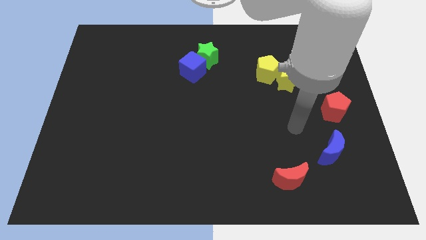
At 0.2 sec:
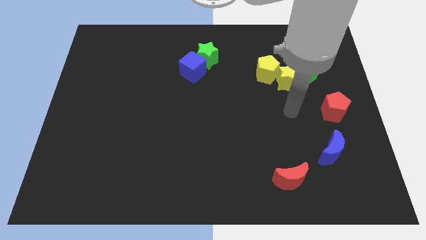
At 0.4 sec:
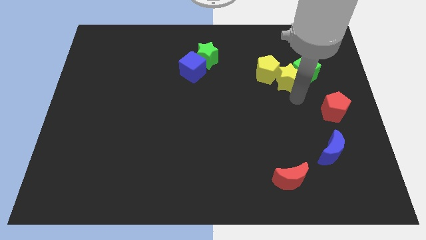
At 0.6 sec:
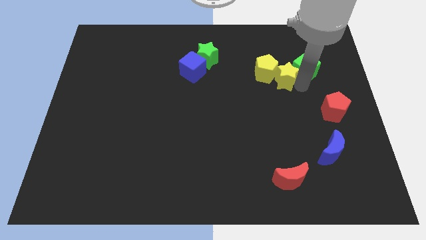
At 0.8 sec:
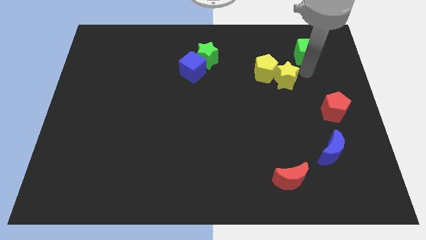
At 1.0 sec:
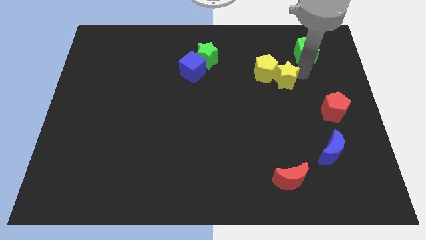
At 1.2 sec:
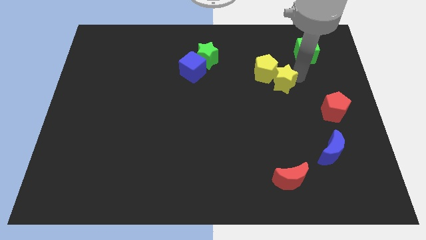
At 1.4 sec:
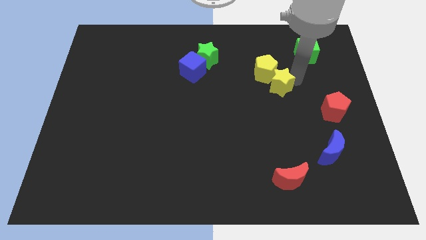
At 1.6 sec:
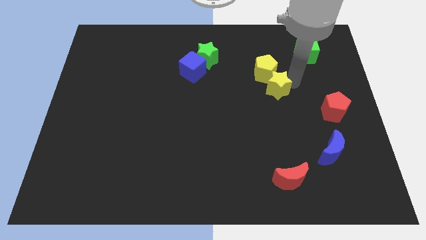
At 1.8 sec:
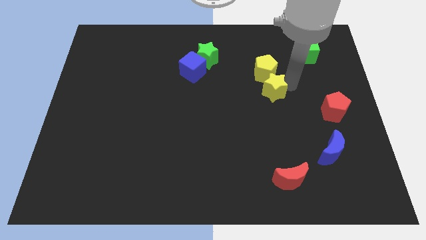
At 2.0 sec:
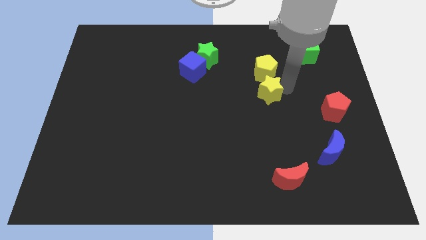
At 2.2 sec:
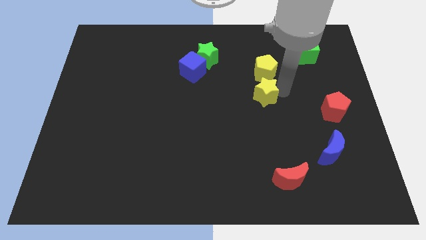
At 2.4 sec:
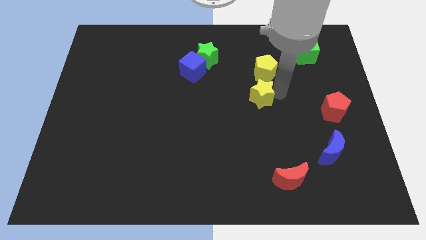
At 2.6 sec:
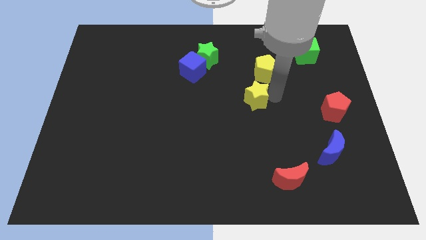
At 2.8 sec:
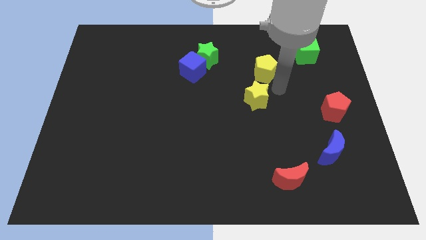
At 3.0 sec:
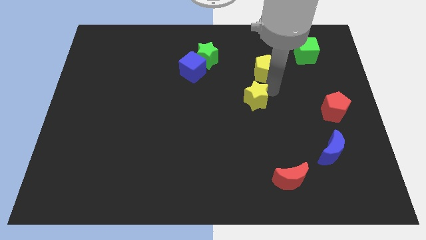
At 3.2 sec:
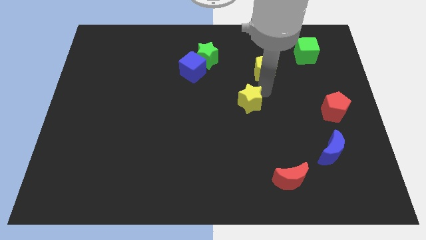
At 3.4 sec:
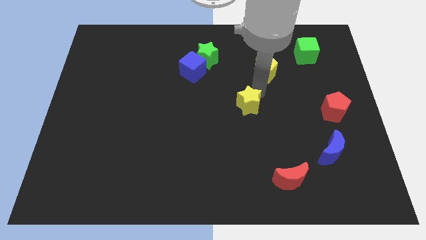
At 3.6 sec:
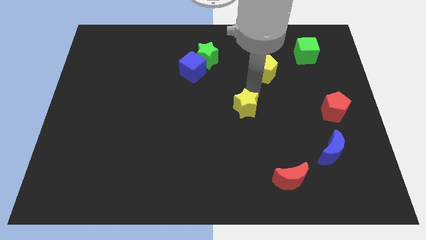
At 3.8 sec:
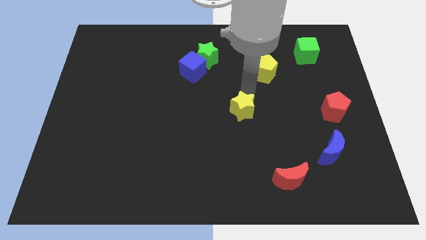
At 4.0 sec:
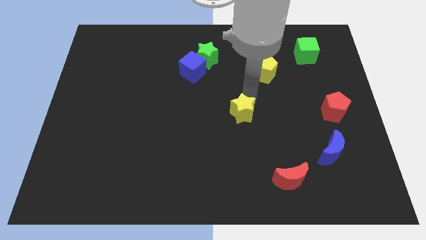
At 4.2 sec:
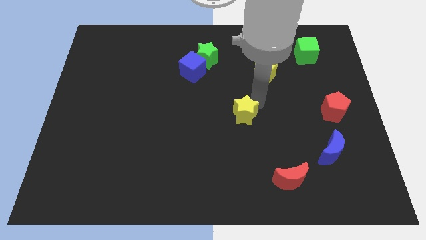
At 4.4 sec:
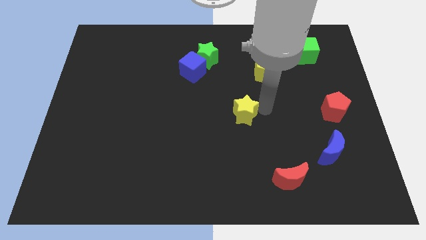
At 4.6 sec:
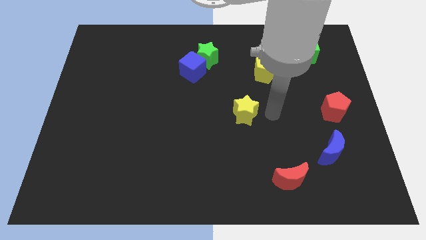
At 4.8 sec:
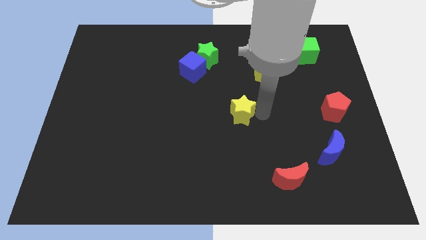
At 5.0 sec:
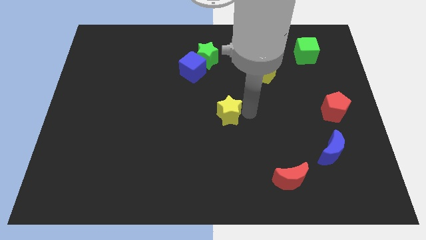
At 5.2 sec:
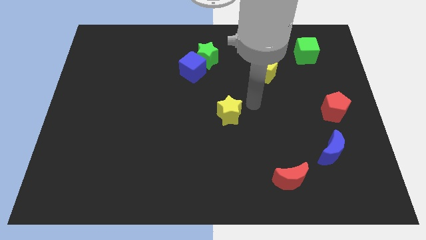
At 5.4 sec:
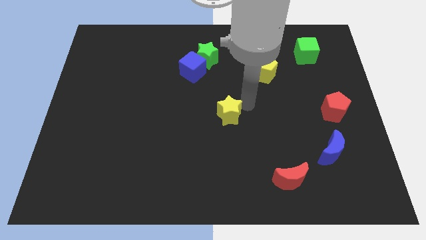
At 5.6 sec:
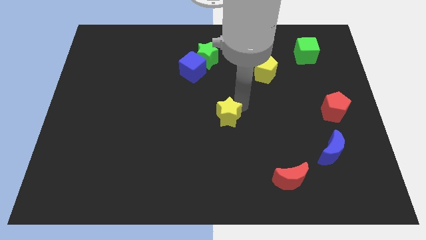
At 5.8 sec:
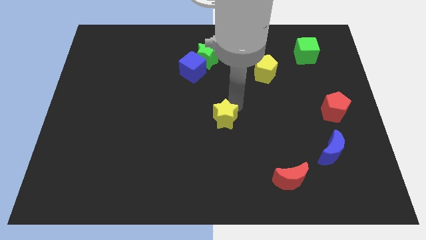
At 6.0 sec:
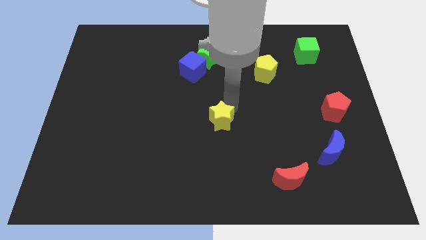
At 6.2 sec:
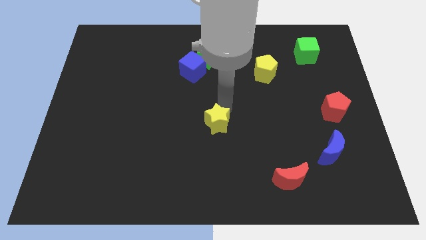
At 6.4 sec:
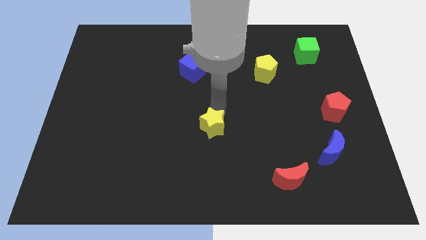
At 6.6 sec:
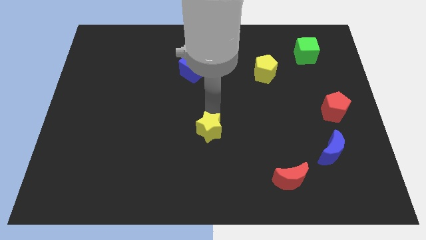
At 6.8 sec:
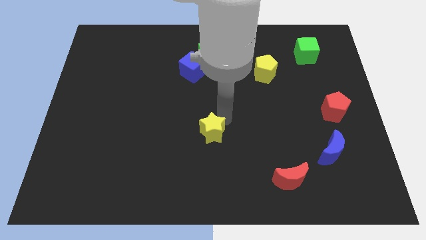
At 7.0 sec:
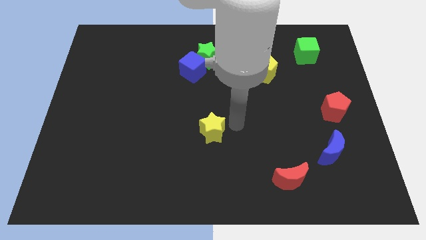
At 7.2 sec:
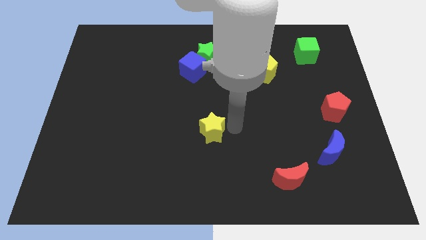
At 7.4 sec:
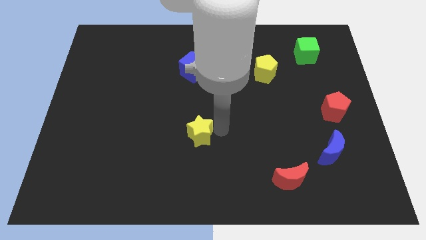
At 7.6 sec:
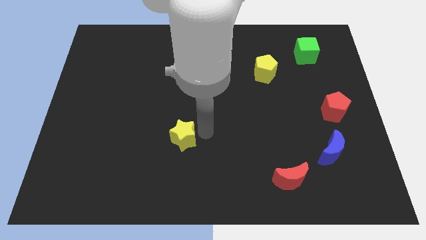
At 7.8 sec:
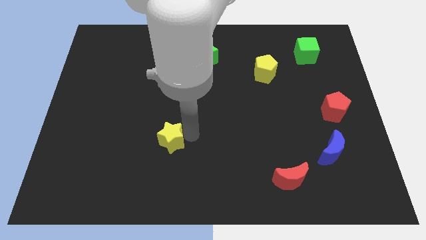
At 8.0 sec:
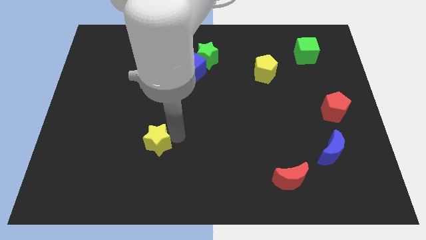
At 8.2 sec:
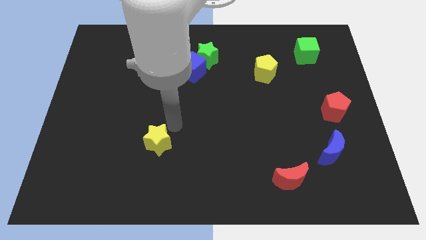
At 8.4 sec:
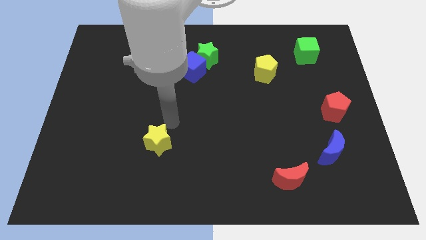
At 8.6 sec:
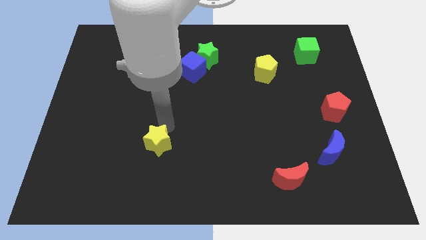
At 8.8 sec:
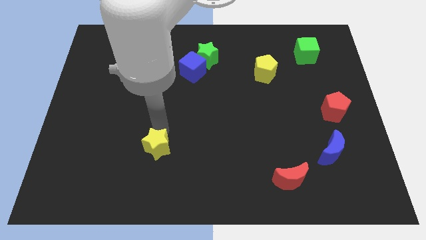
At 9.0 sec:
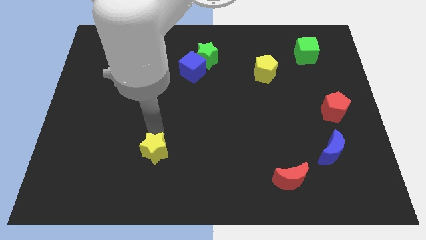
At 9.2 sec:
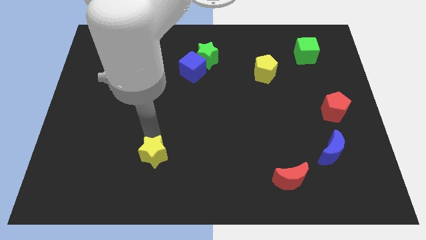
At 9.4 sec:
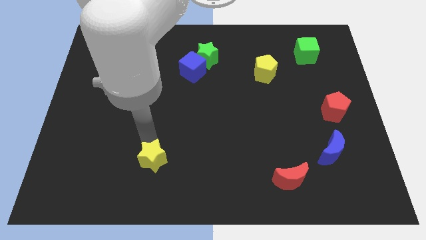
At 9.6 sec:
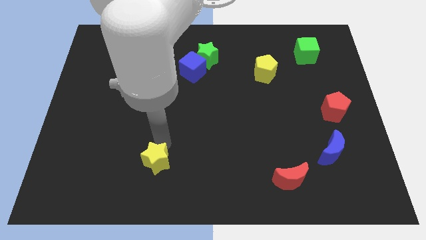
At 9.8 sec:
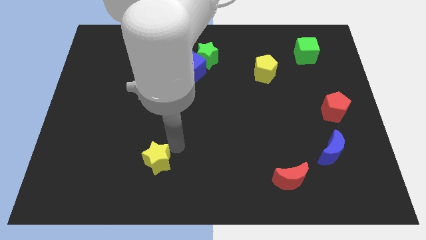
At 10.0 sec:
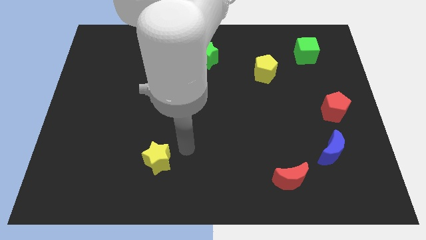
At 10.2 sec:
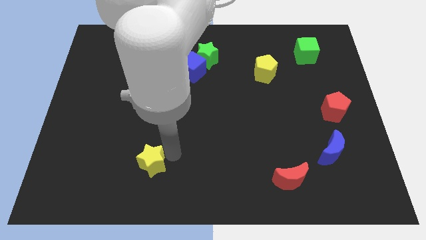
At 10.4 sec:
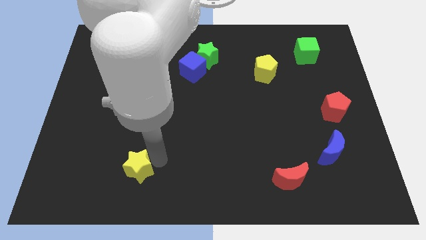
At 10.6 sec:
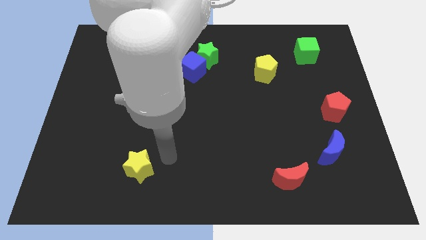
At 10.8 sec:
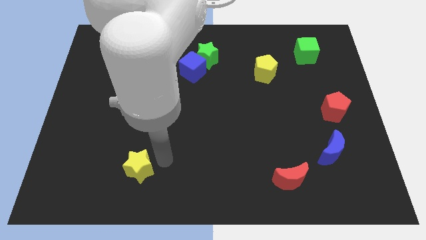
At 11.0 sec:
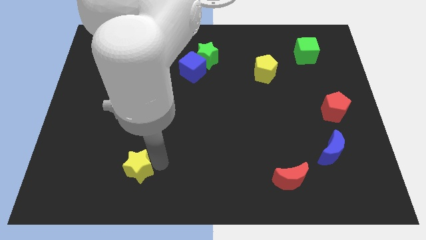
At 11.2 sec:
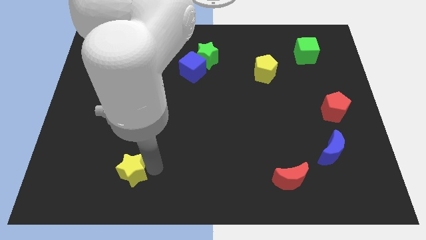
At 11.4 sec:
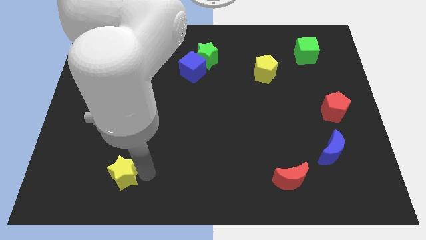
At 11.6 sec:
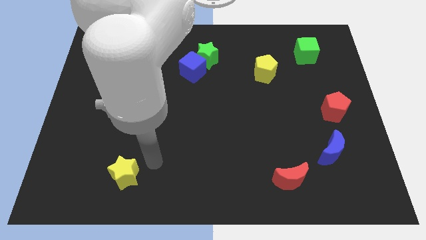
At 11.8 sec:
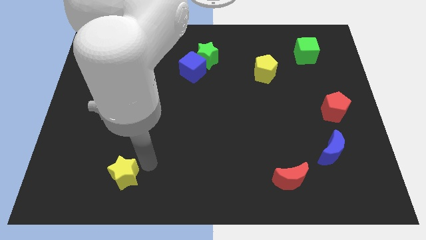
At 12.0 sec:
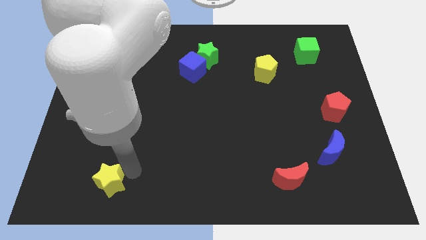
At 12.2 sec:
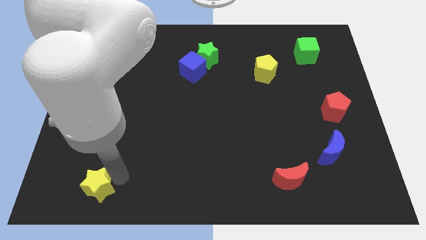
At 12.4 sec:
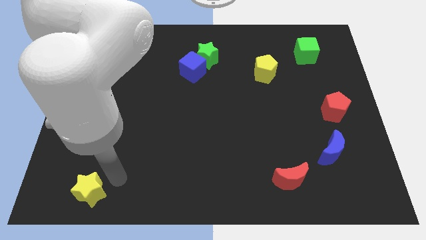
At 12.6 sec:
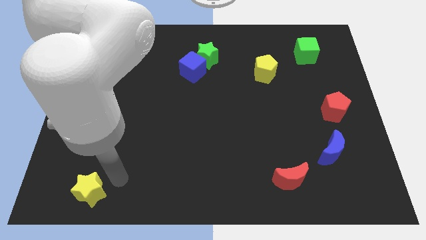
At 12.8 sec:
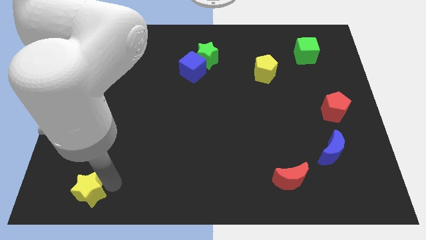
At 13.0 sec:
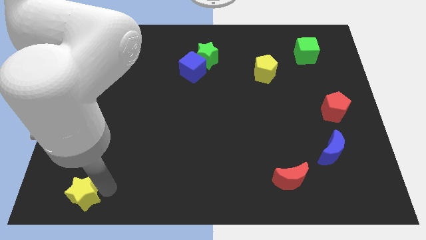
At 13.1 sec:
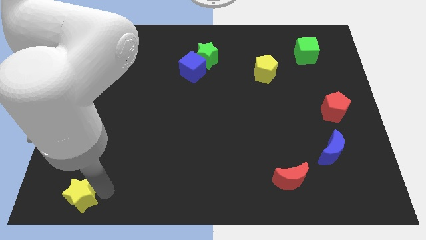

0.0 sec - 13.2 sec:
push the yellow star to the bottom left of the board

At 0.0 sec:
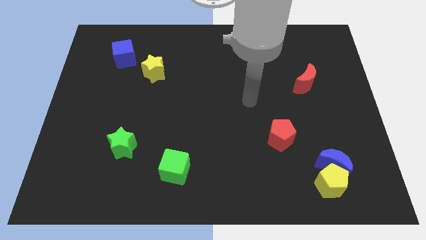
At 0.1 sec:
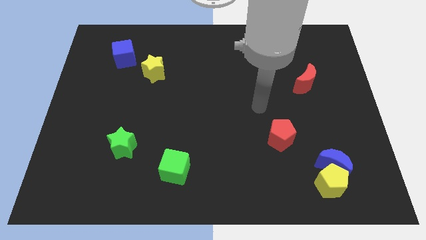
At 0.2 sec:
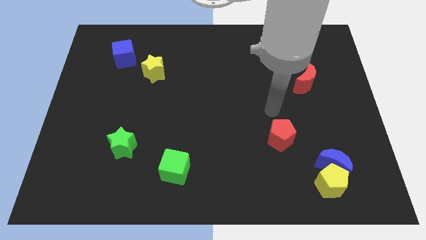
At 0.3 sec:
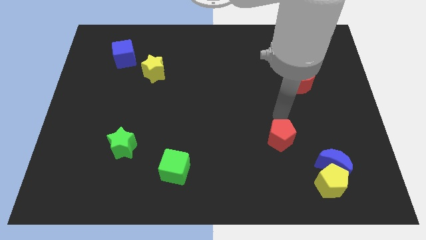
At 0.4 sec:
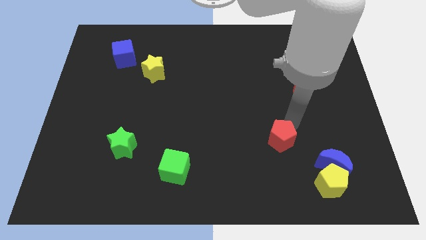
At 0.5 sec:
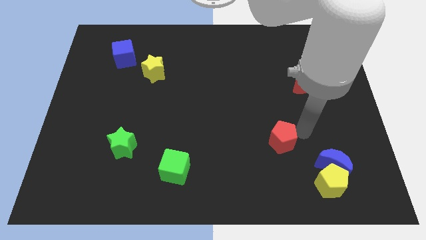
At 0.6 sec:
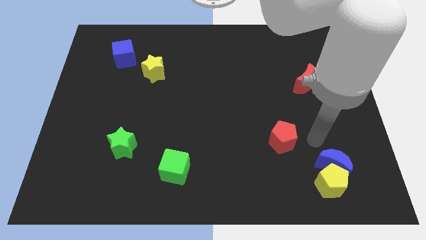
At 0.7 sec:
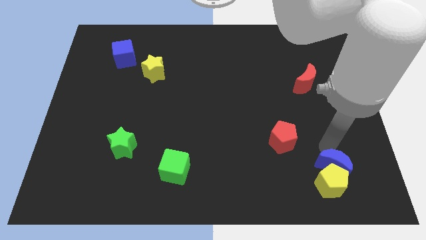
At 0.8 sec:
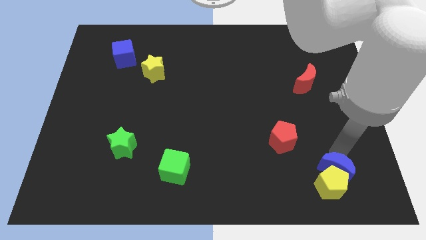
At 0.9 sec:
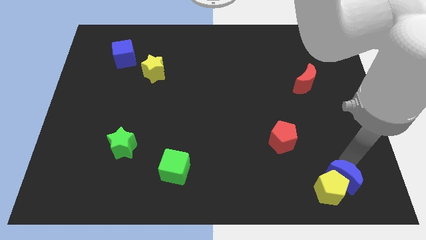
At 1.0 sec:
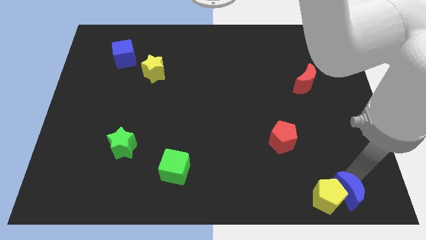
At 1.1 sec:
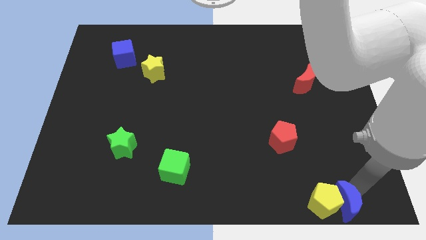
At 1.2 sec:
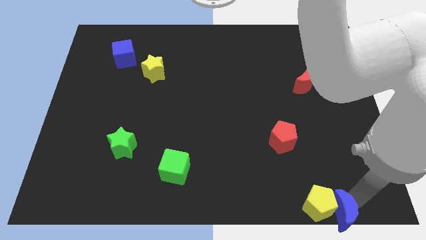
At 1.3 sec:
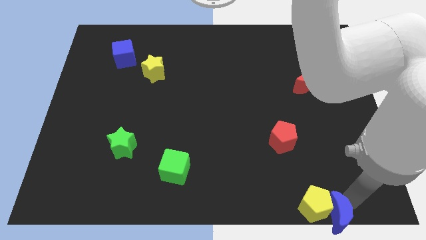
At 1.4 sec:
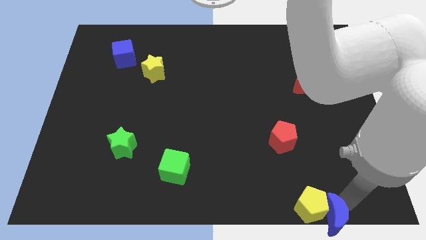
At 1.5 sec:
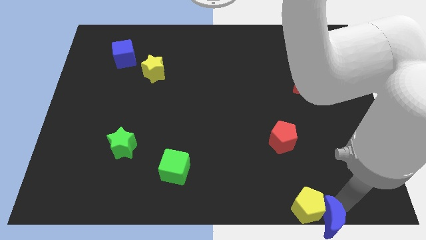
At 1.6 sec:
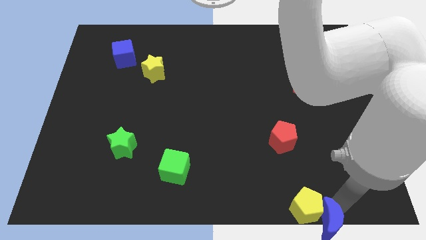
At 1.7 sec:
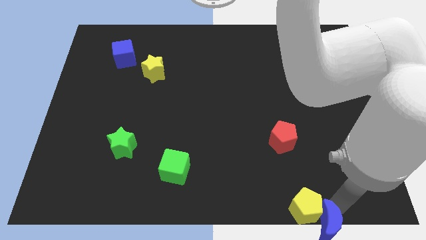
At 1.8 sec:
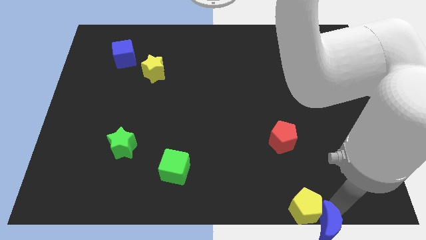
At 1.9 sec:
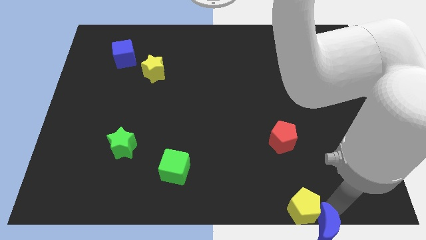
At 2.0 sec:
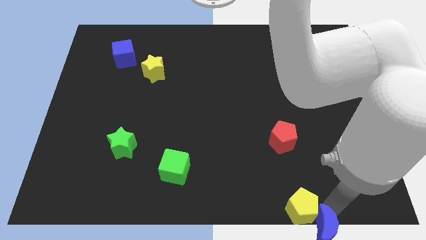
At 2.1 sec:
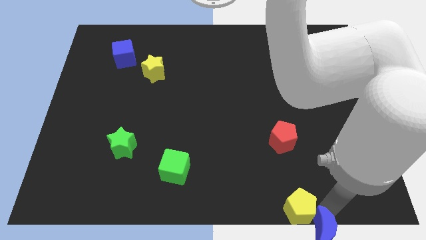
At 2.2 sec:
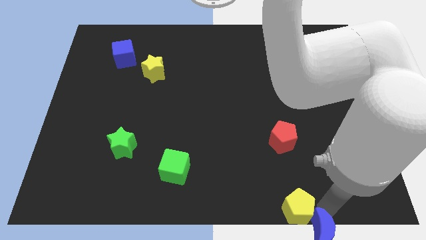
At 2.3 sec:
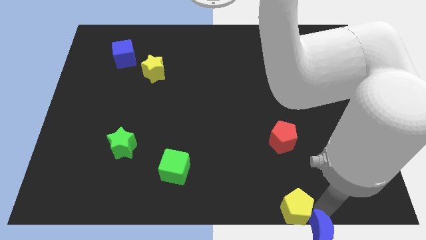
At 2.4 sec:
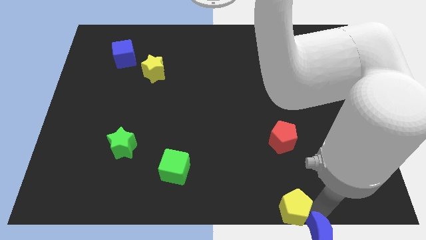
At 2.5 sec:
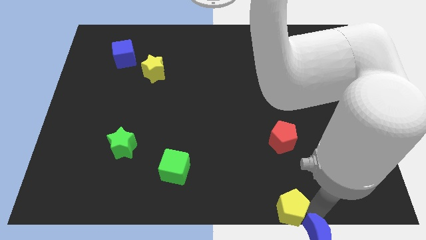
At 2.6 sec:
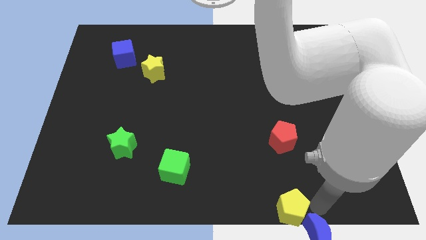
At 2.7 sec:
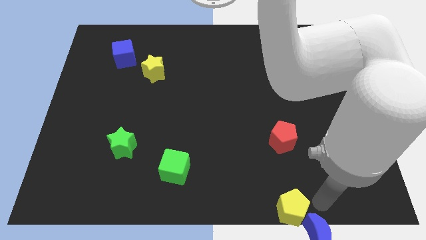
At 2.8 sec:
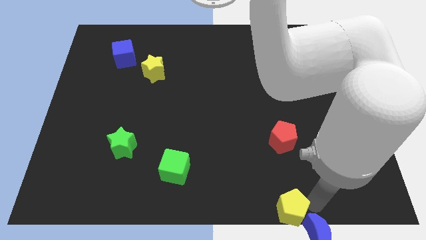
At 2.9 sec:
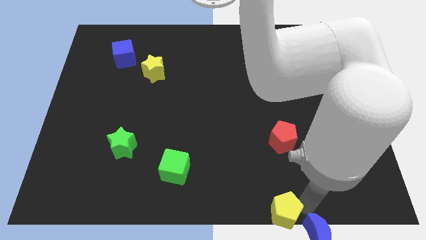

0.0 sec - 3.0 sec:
put the yellow pentagon to the bottom
